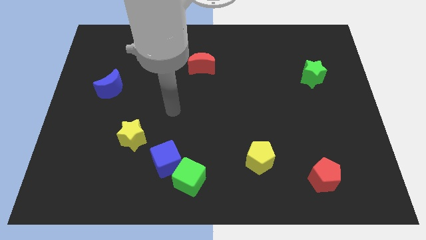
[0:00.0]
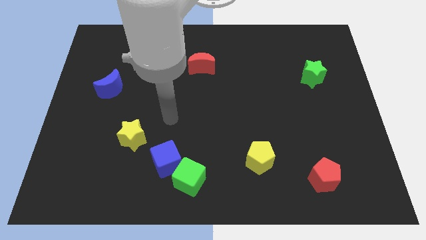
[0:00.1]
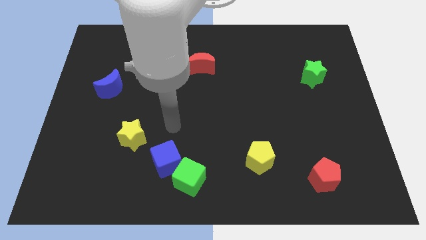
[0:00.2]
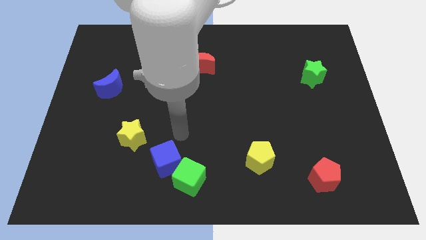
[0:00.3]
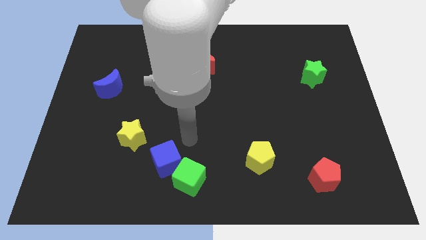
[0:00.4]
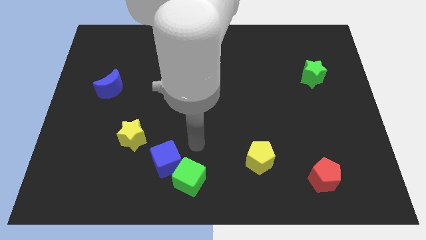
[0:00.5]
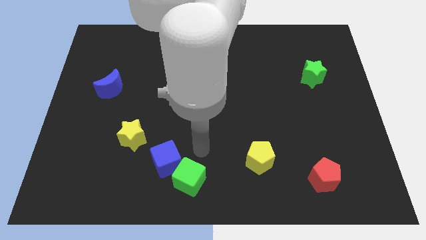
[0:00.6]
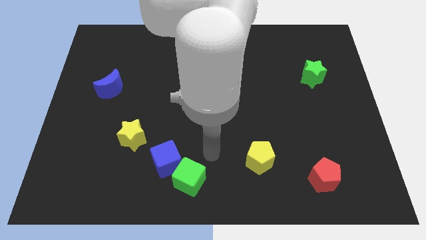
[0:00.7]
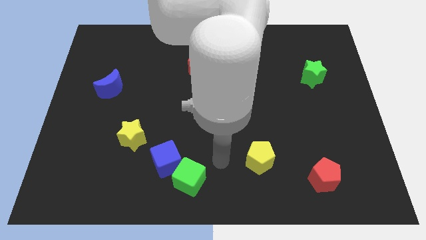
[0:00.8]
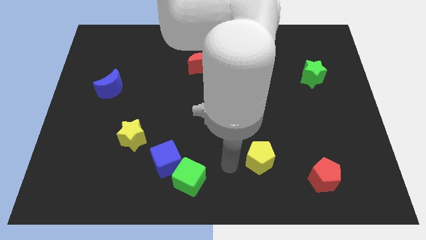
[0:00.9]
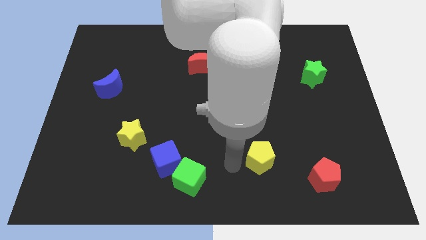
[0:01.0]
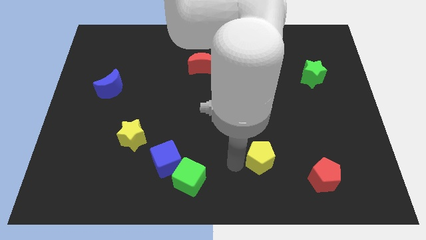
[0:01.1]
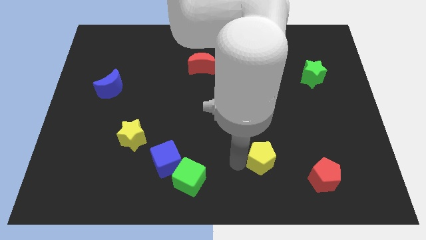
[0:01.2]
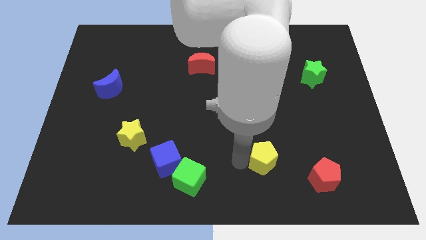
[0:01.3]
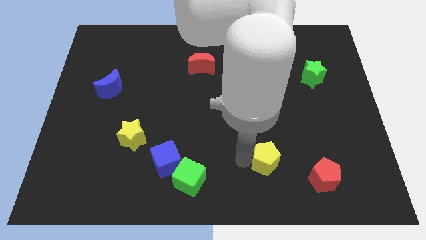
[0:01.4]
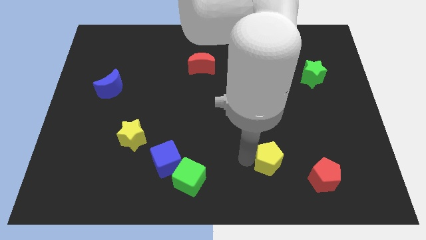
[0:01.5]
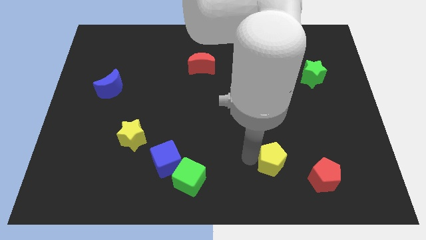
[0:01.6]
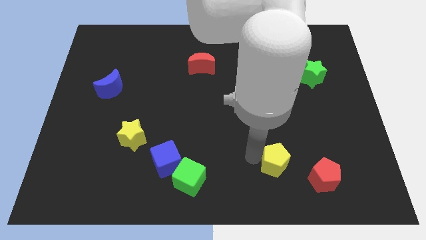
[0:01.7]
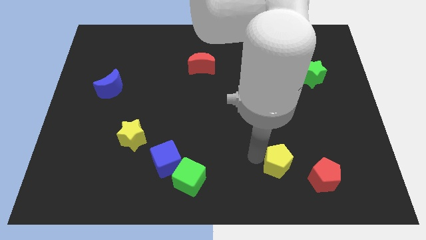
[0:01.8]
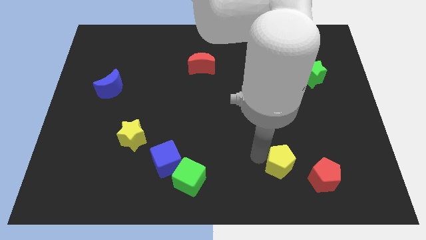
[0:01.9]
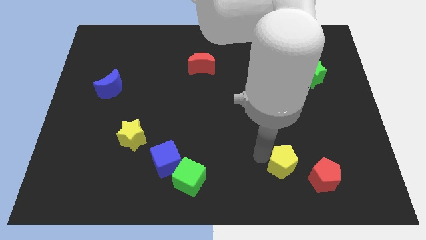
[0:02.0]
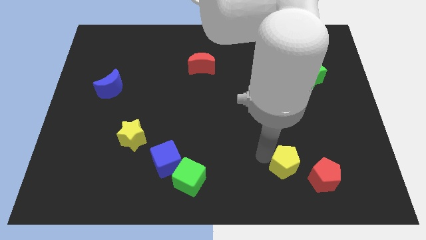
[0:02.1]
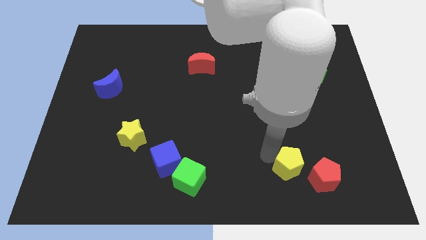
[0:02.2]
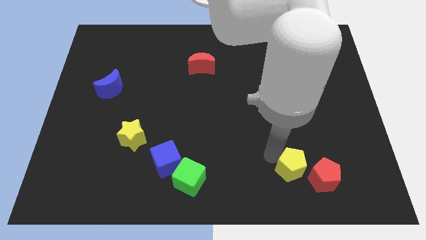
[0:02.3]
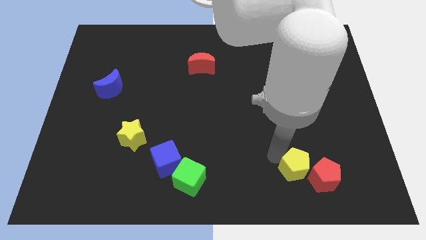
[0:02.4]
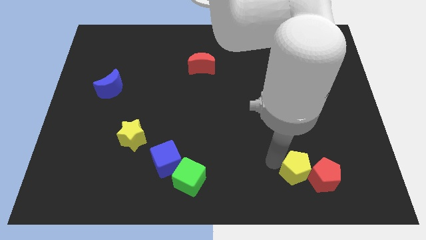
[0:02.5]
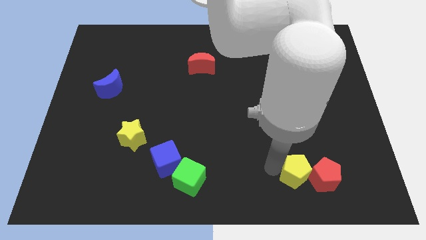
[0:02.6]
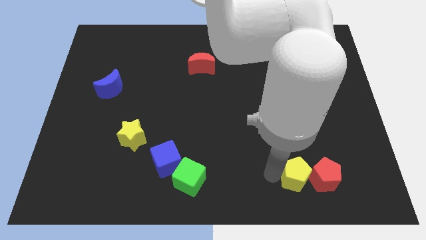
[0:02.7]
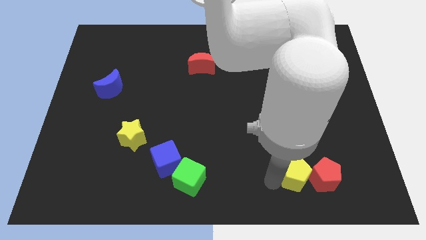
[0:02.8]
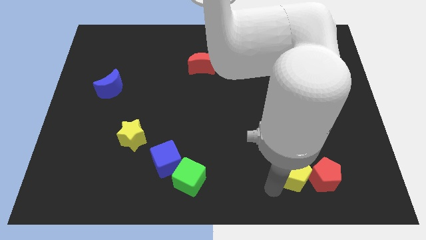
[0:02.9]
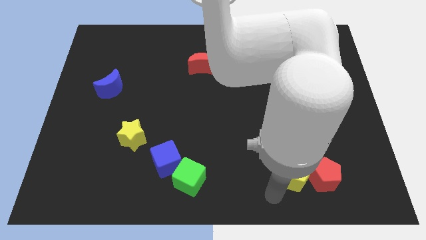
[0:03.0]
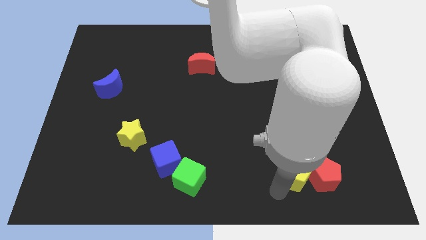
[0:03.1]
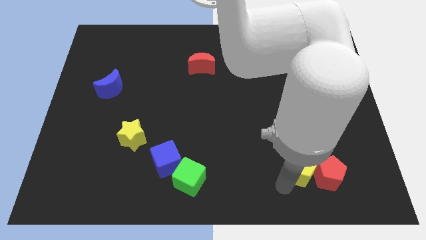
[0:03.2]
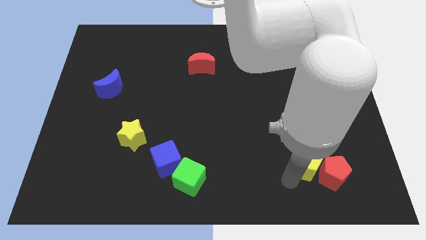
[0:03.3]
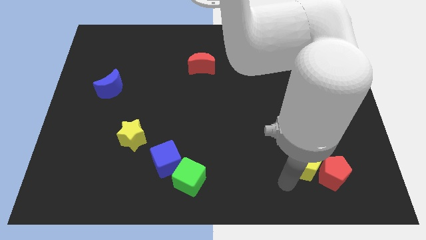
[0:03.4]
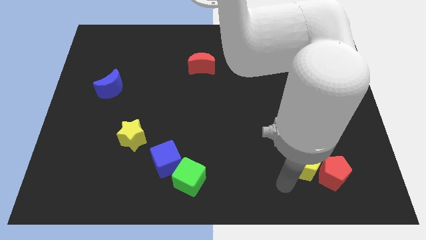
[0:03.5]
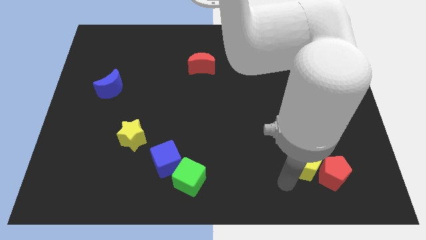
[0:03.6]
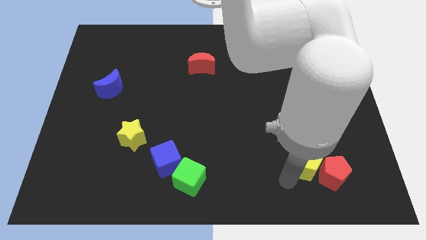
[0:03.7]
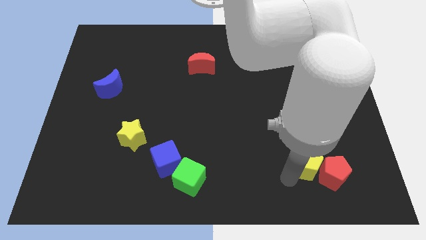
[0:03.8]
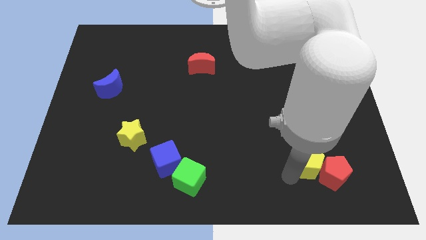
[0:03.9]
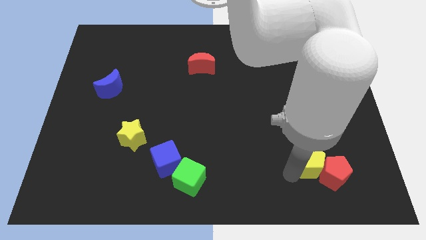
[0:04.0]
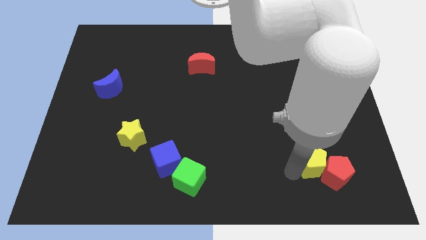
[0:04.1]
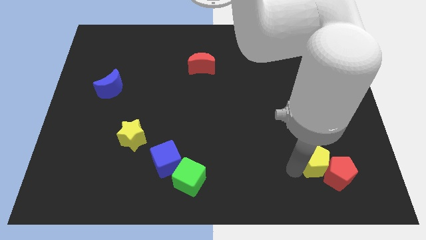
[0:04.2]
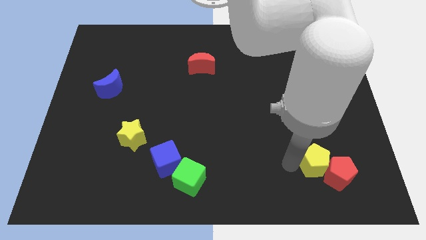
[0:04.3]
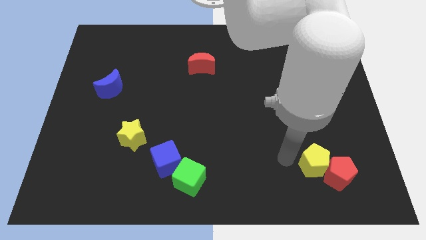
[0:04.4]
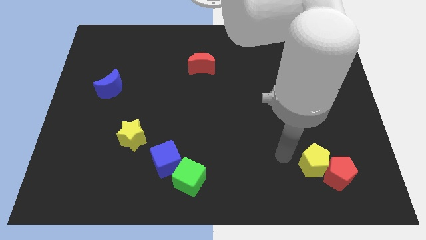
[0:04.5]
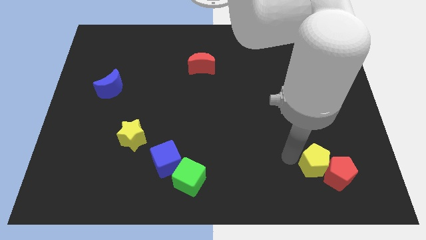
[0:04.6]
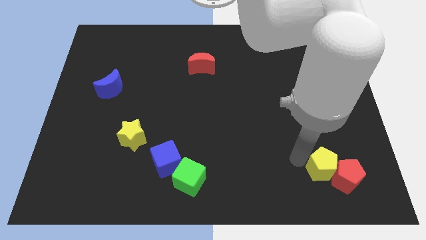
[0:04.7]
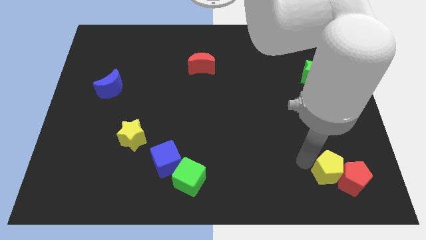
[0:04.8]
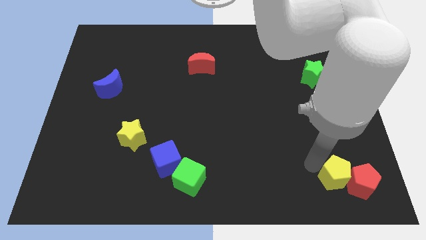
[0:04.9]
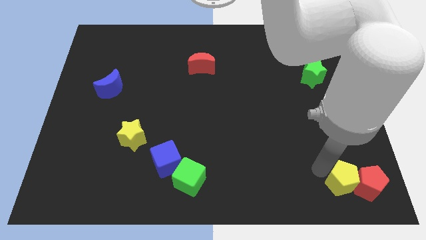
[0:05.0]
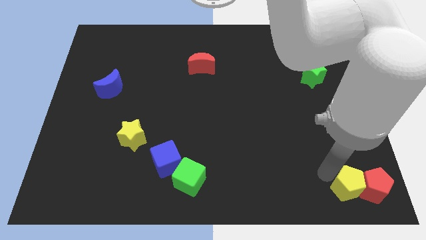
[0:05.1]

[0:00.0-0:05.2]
move the yellow pentagon to the bottom right

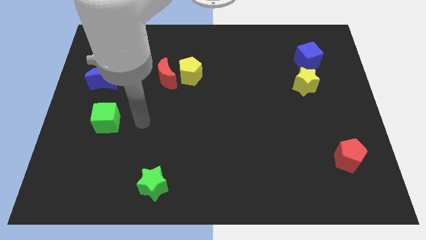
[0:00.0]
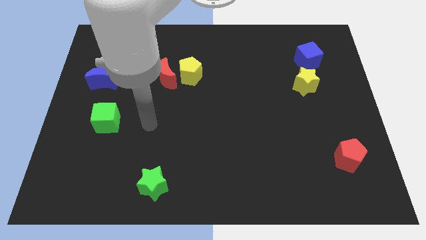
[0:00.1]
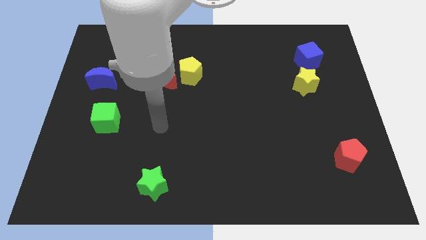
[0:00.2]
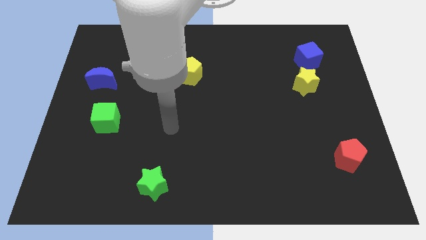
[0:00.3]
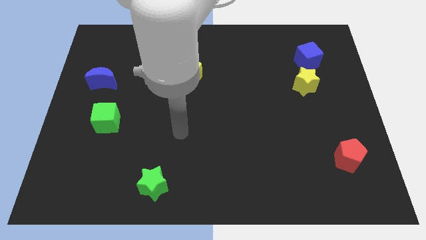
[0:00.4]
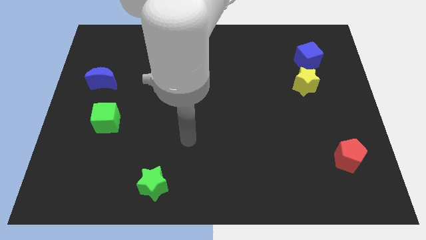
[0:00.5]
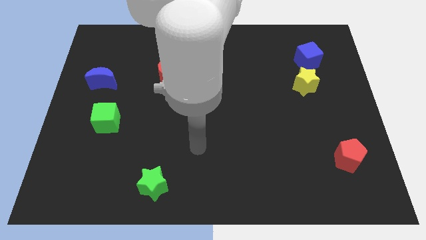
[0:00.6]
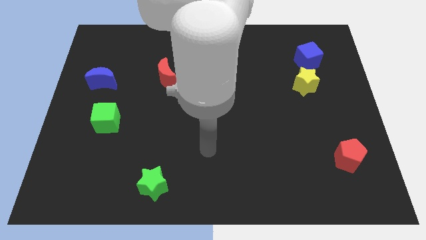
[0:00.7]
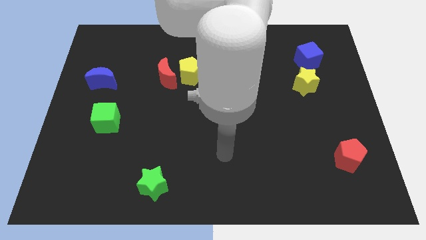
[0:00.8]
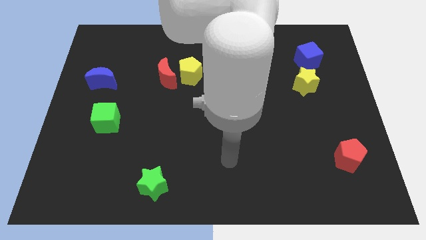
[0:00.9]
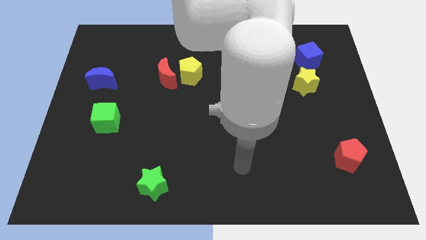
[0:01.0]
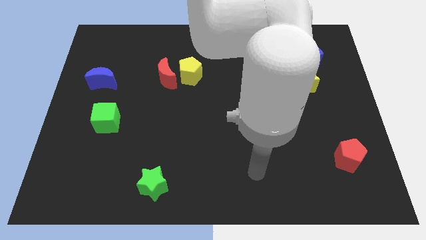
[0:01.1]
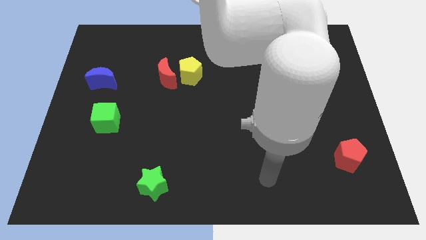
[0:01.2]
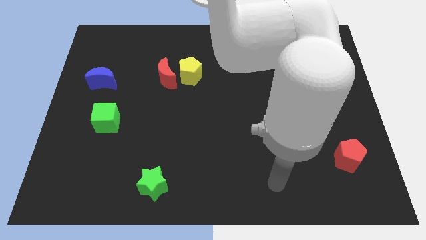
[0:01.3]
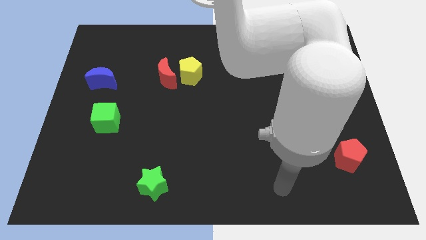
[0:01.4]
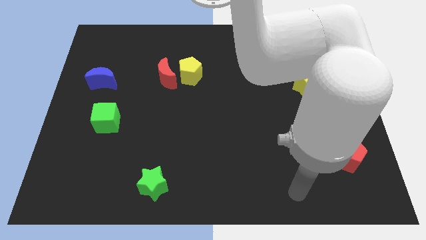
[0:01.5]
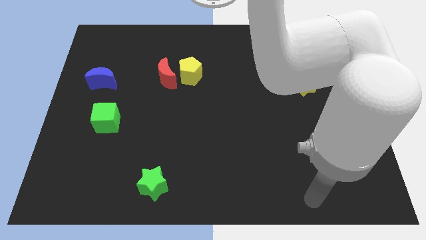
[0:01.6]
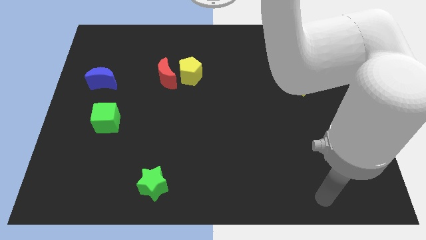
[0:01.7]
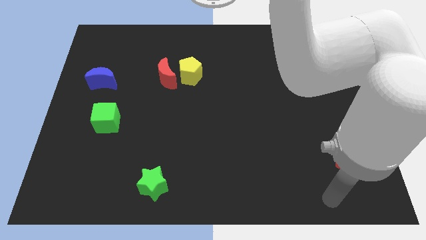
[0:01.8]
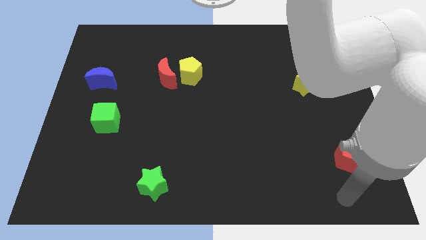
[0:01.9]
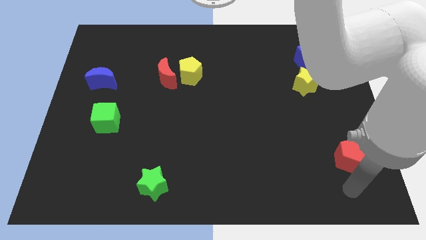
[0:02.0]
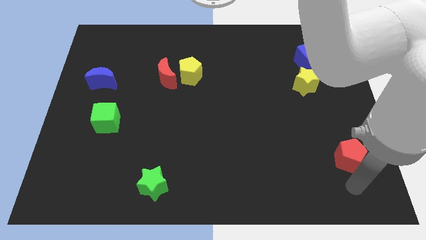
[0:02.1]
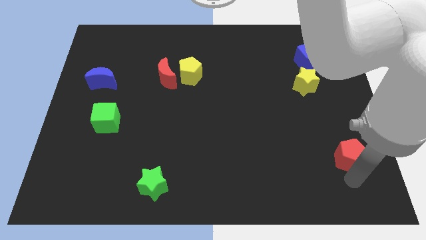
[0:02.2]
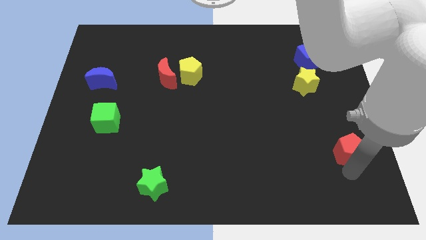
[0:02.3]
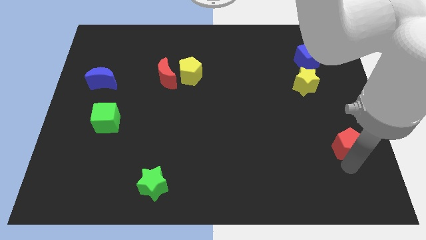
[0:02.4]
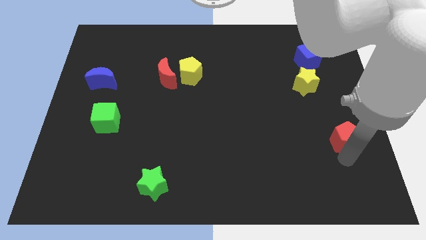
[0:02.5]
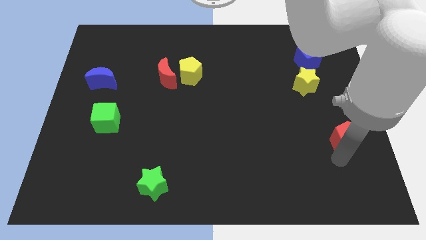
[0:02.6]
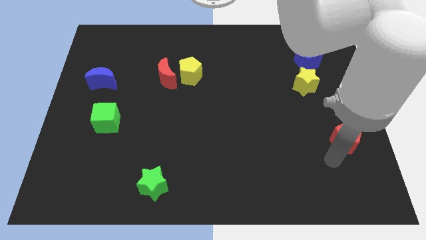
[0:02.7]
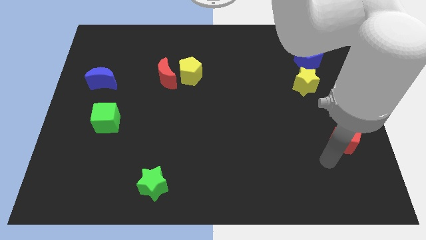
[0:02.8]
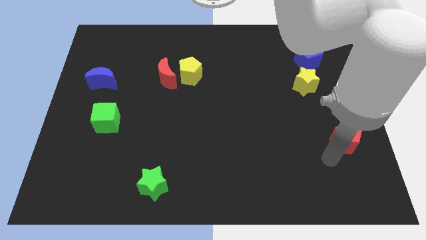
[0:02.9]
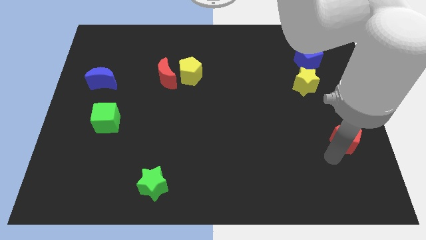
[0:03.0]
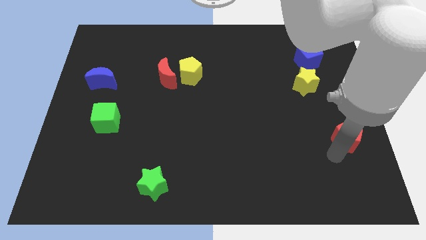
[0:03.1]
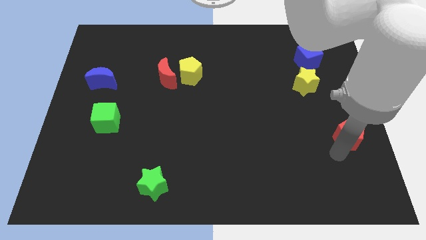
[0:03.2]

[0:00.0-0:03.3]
slide the red pentagon to the center right
